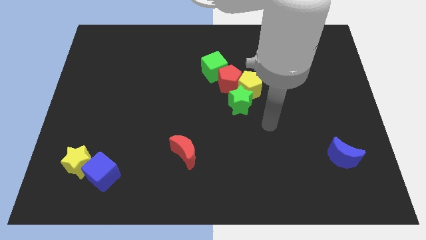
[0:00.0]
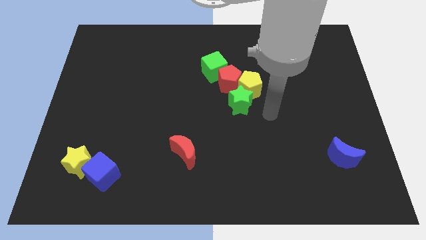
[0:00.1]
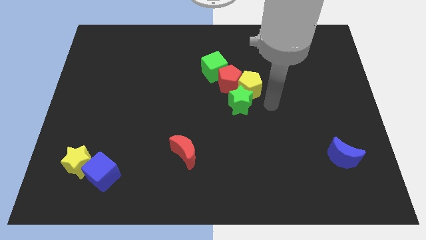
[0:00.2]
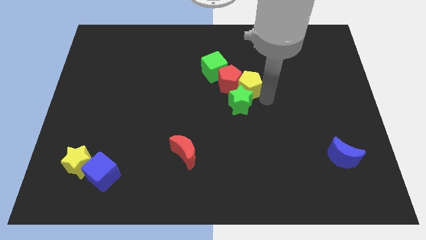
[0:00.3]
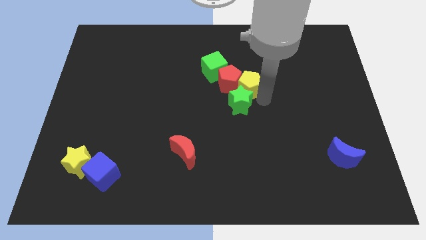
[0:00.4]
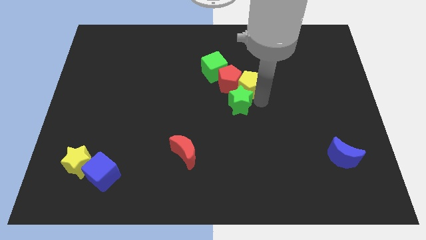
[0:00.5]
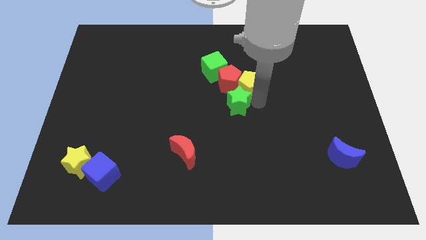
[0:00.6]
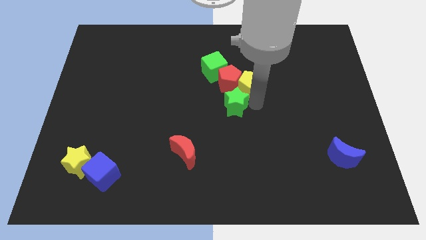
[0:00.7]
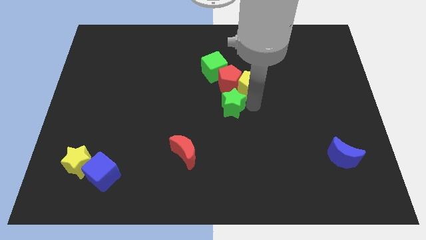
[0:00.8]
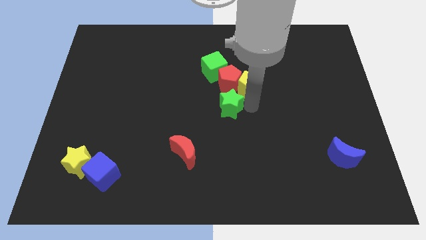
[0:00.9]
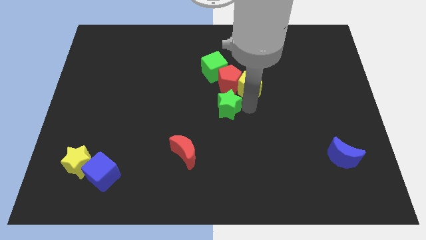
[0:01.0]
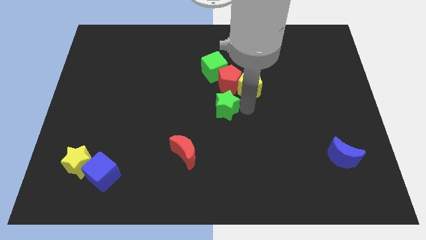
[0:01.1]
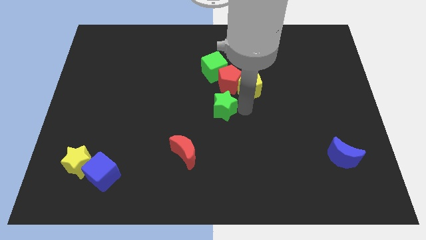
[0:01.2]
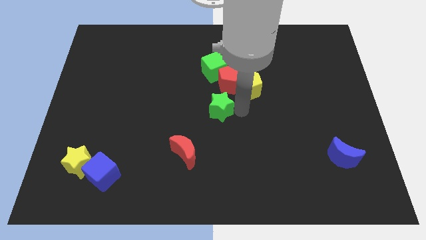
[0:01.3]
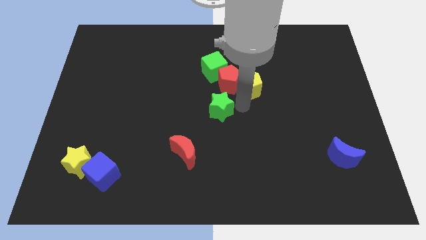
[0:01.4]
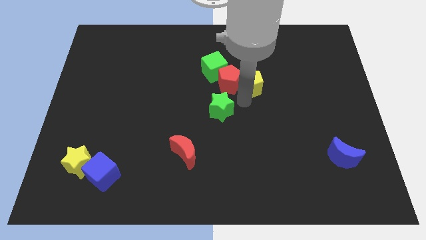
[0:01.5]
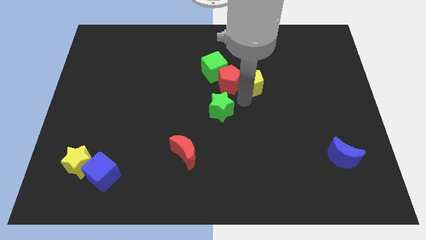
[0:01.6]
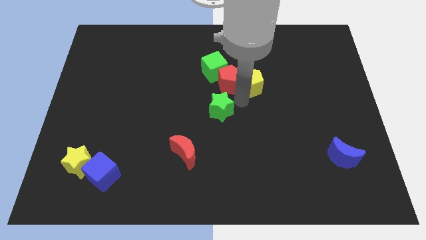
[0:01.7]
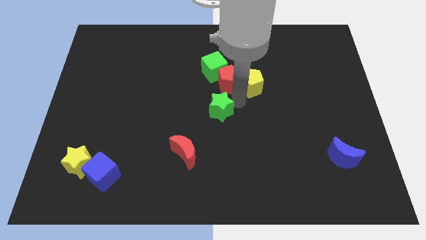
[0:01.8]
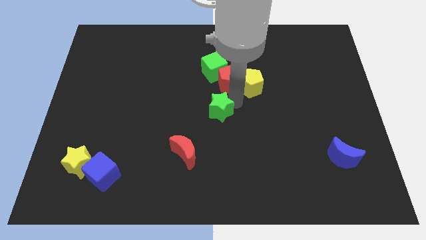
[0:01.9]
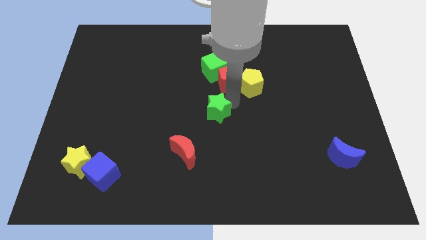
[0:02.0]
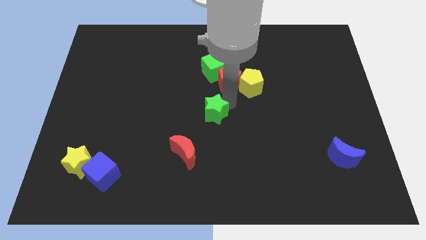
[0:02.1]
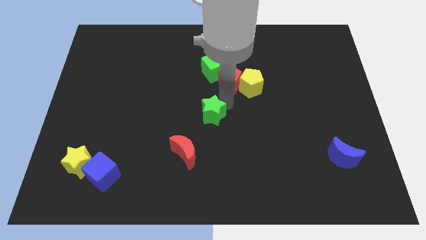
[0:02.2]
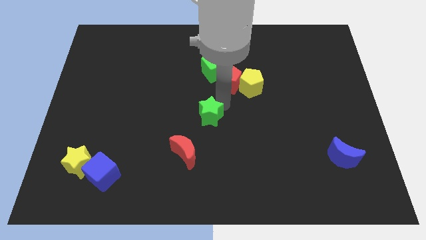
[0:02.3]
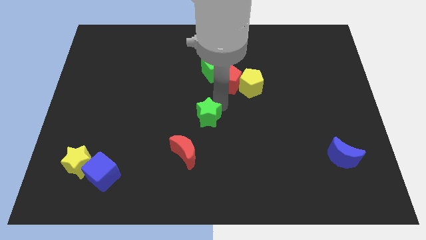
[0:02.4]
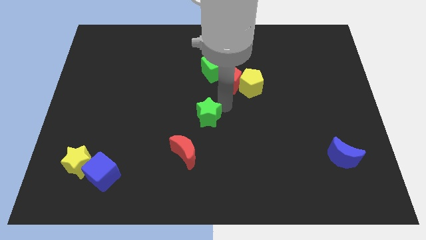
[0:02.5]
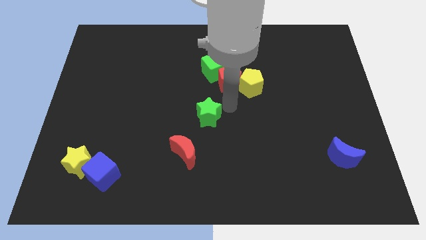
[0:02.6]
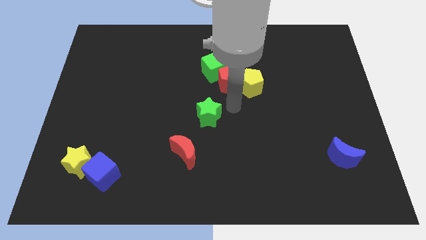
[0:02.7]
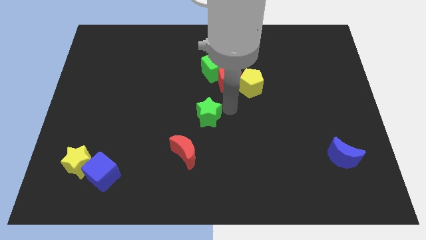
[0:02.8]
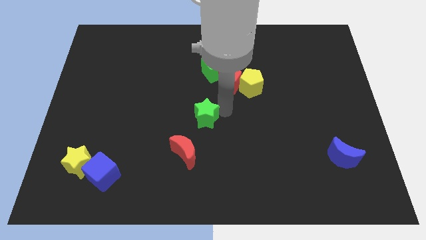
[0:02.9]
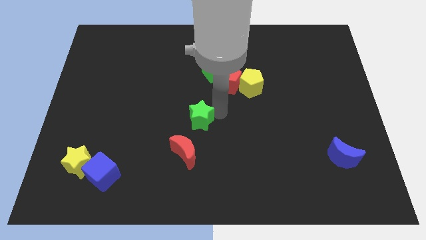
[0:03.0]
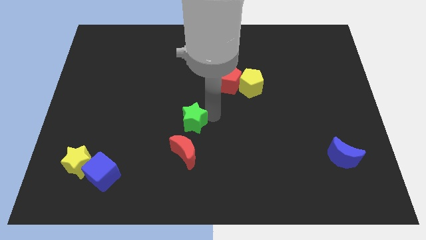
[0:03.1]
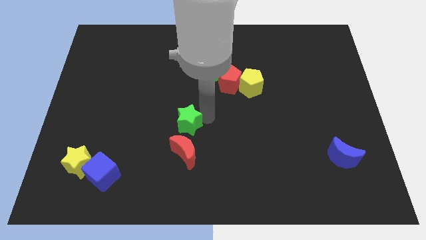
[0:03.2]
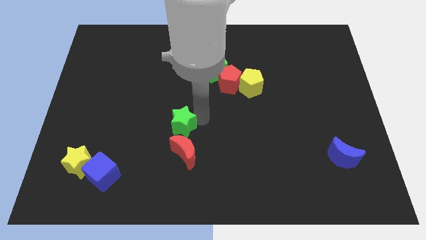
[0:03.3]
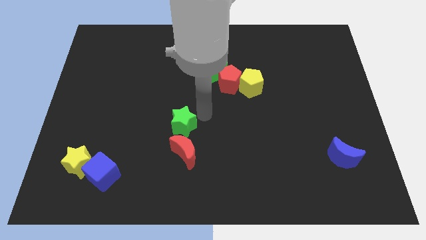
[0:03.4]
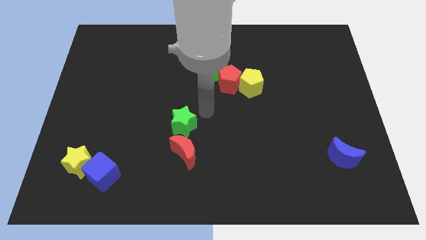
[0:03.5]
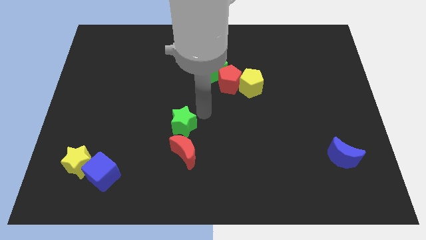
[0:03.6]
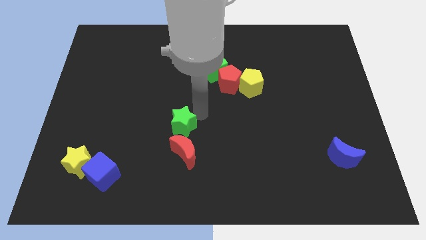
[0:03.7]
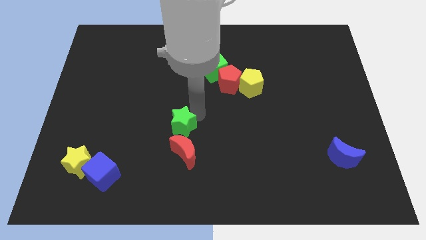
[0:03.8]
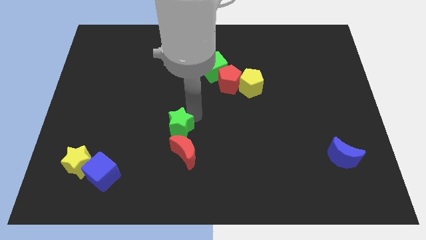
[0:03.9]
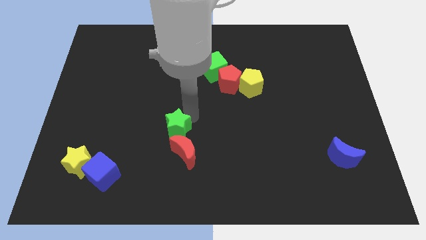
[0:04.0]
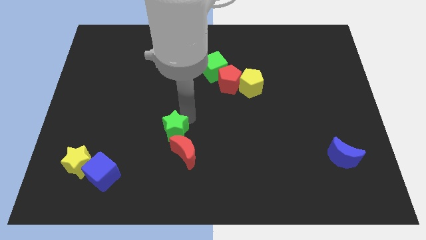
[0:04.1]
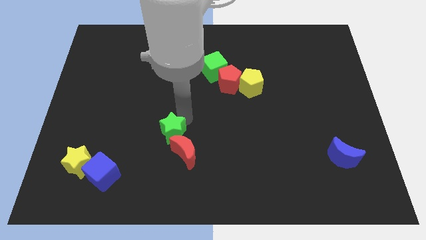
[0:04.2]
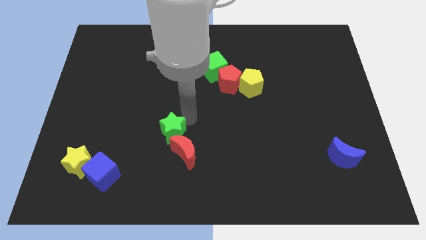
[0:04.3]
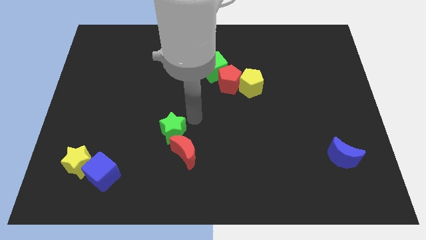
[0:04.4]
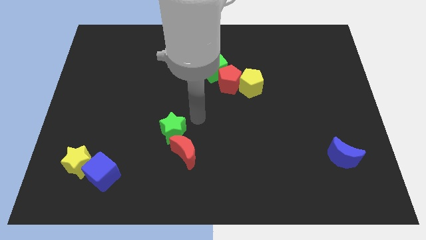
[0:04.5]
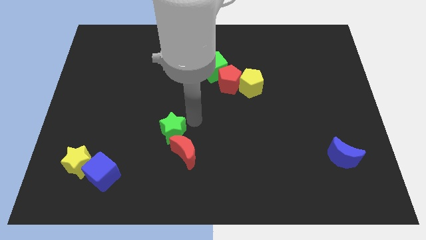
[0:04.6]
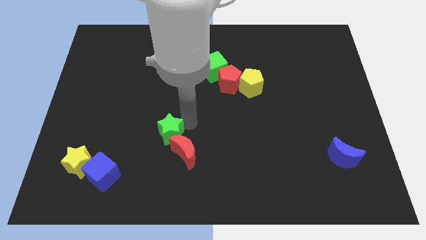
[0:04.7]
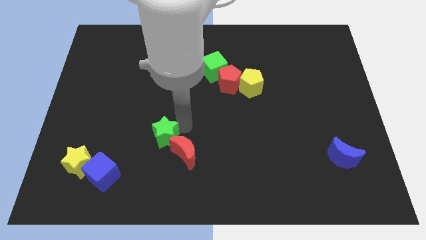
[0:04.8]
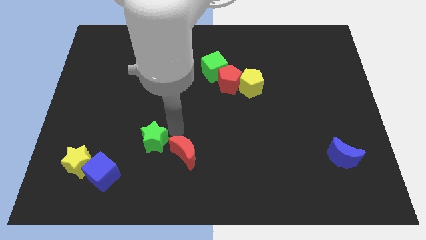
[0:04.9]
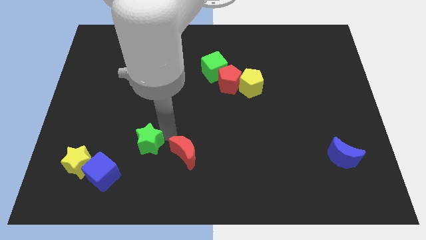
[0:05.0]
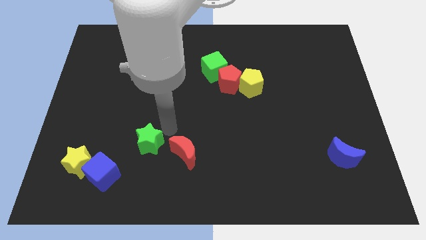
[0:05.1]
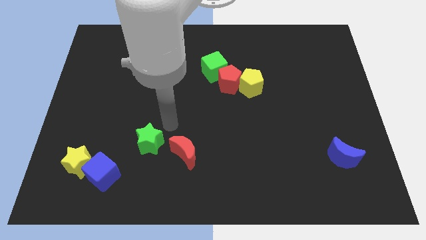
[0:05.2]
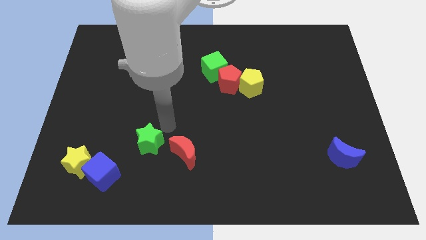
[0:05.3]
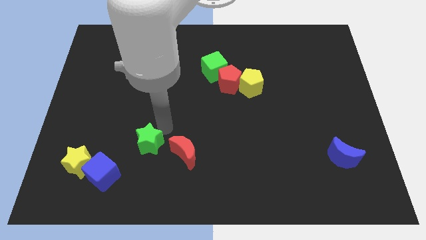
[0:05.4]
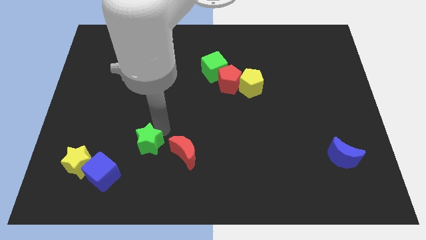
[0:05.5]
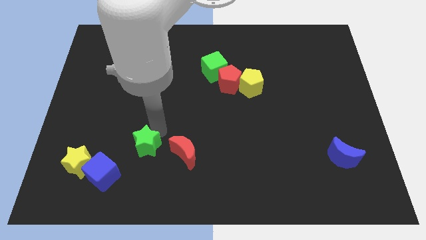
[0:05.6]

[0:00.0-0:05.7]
put the green star right of the yellow star

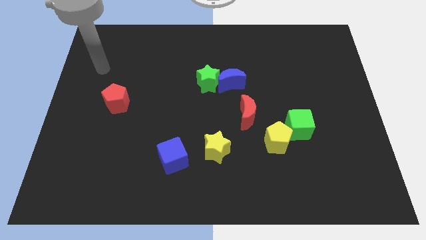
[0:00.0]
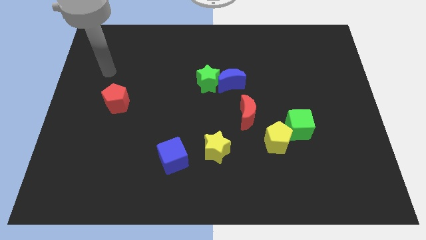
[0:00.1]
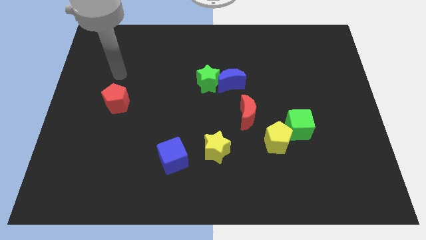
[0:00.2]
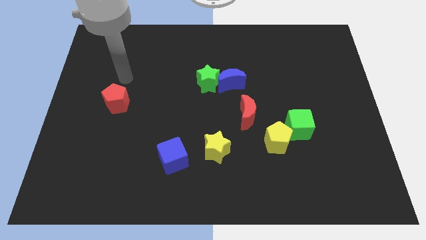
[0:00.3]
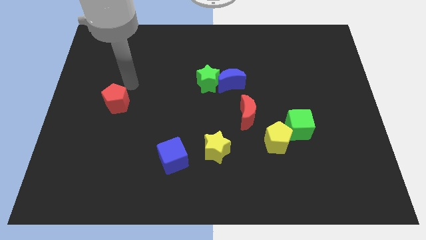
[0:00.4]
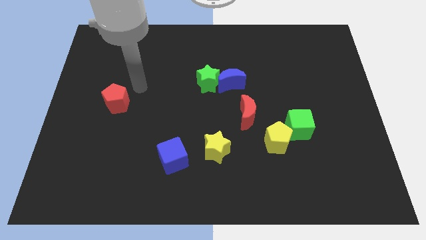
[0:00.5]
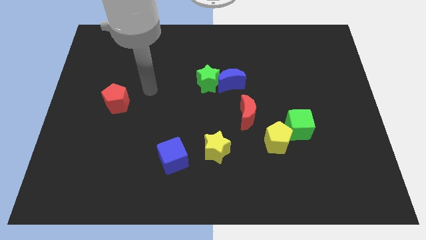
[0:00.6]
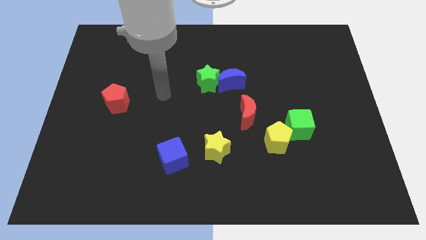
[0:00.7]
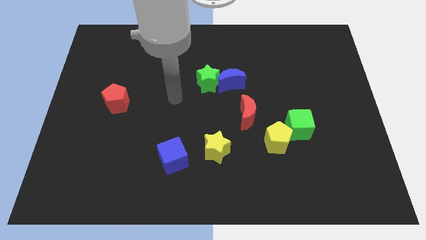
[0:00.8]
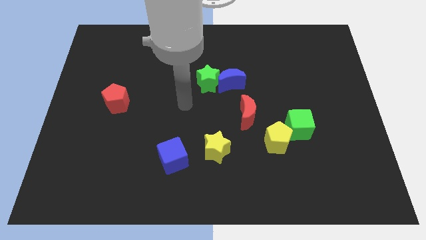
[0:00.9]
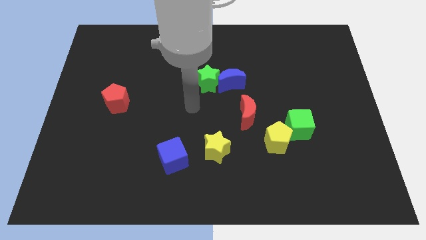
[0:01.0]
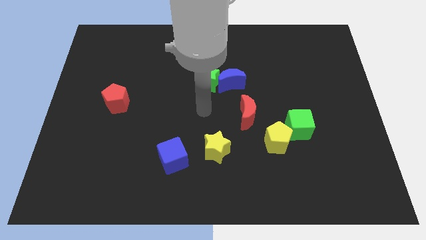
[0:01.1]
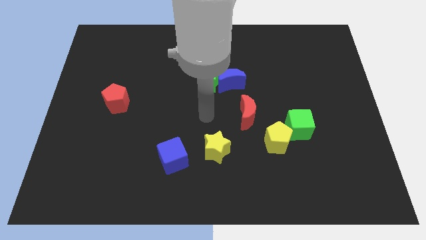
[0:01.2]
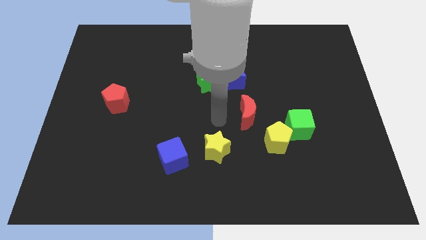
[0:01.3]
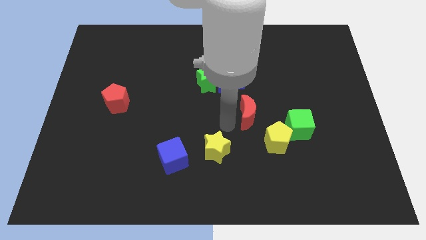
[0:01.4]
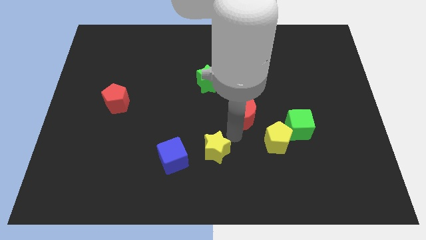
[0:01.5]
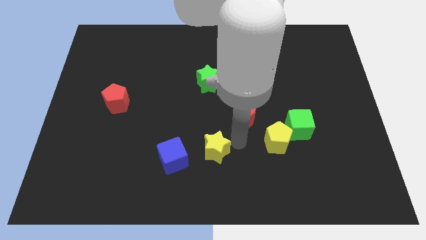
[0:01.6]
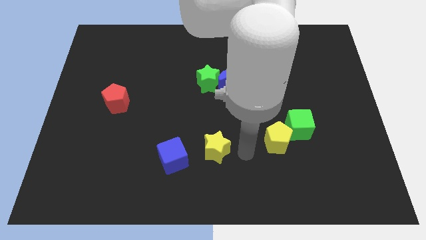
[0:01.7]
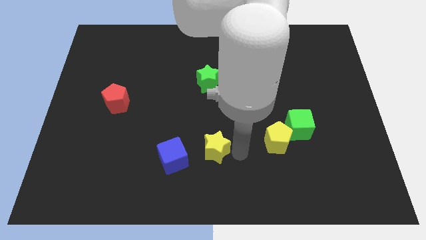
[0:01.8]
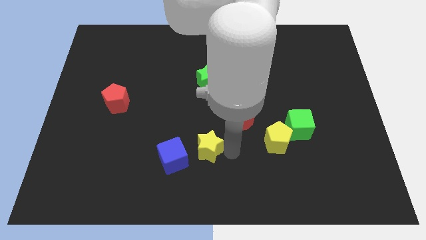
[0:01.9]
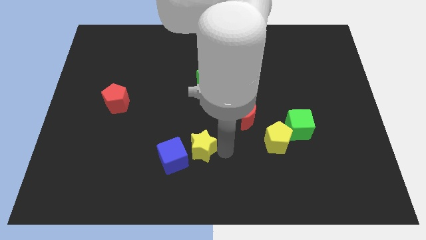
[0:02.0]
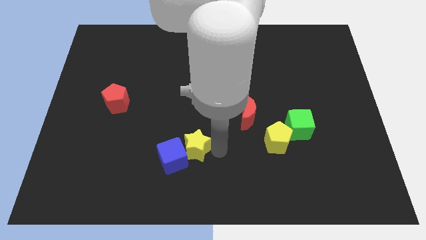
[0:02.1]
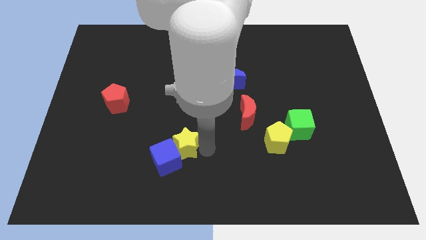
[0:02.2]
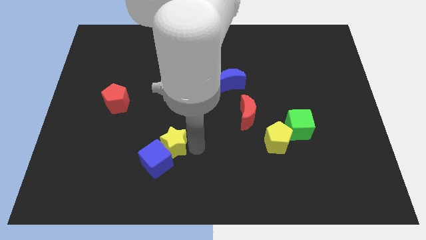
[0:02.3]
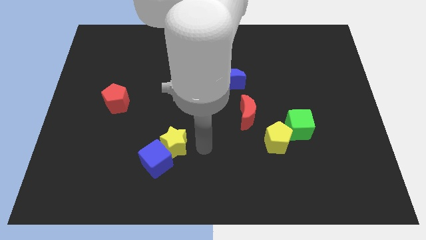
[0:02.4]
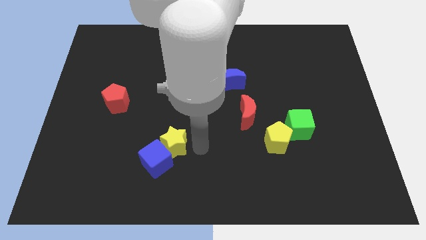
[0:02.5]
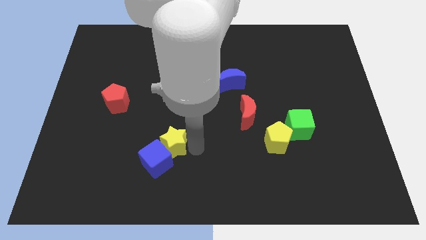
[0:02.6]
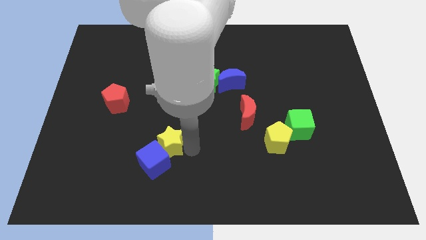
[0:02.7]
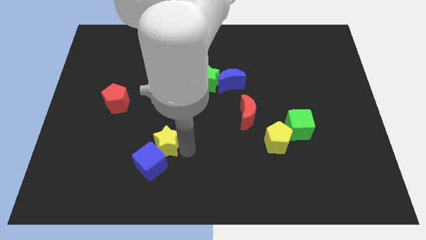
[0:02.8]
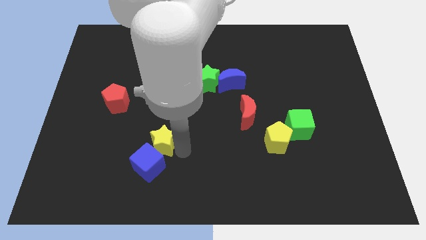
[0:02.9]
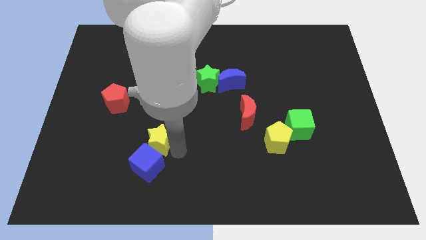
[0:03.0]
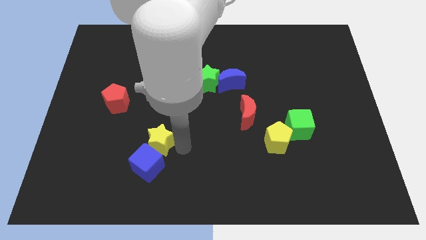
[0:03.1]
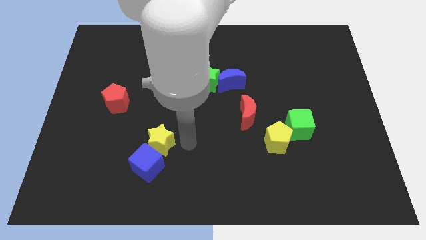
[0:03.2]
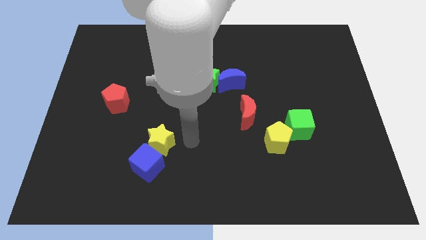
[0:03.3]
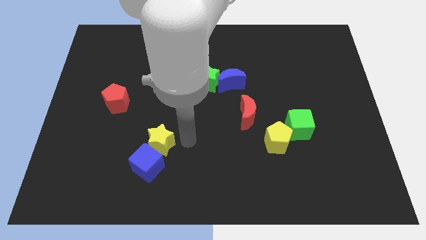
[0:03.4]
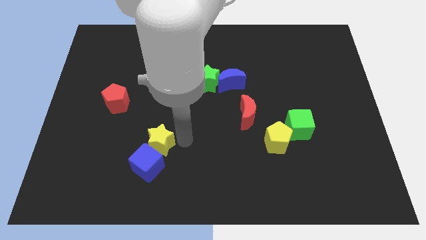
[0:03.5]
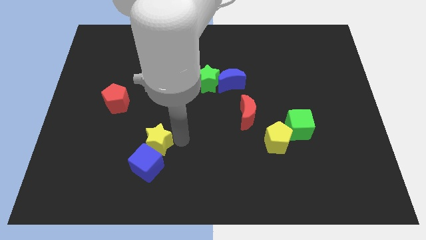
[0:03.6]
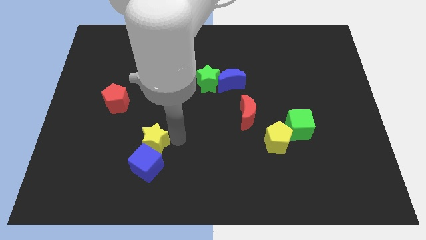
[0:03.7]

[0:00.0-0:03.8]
slide the yellow star to the top left of the blue cube
